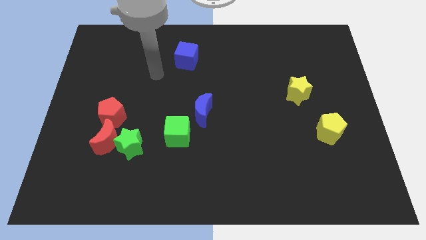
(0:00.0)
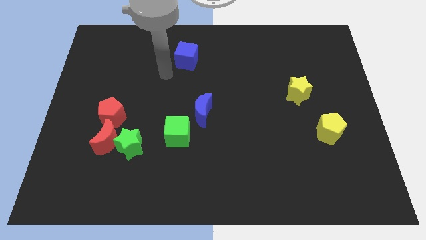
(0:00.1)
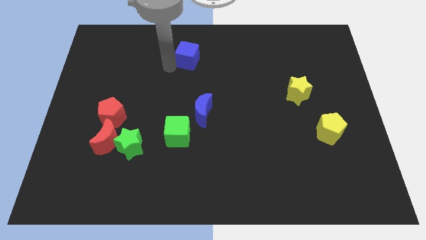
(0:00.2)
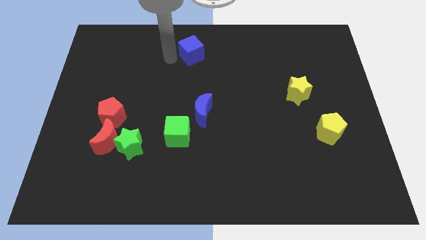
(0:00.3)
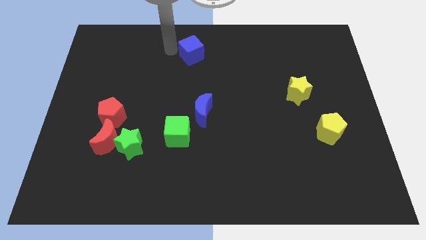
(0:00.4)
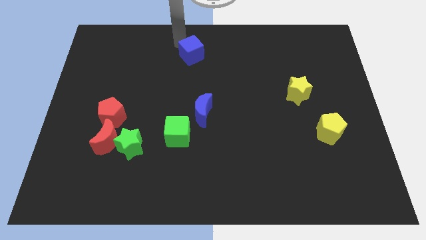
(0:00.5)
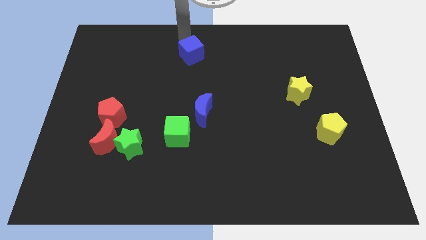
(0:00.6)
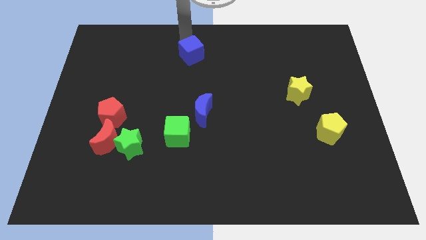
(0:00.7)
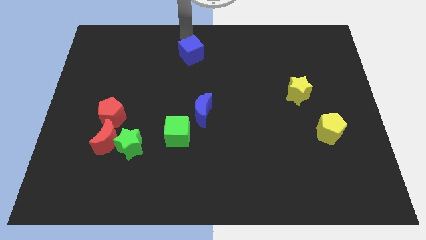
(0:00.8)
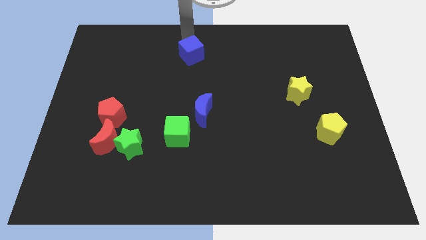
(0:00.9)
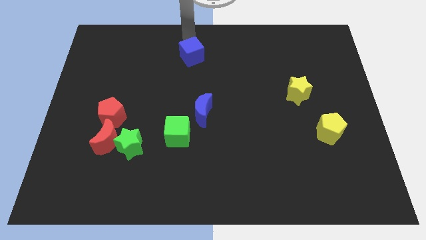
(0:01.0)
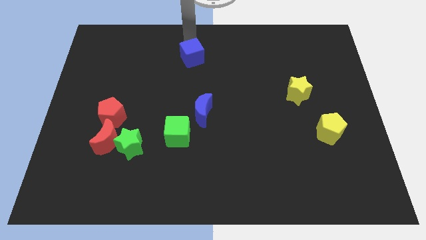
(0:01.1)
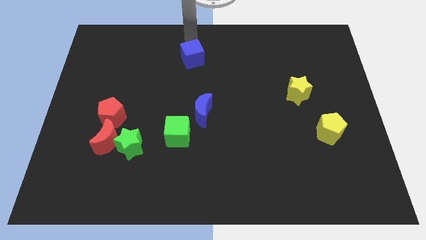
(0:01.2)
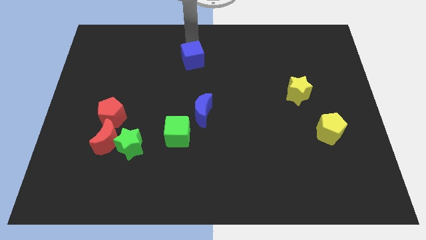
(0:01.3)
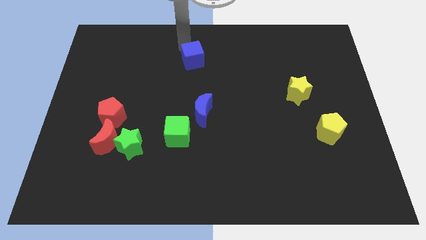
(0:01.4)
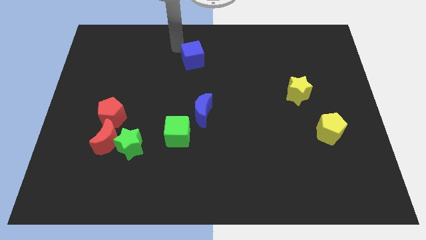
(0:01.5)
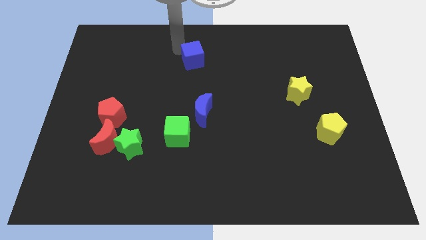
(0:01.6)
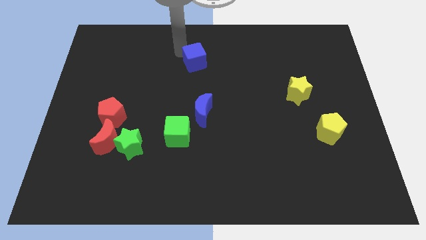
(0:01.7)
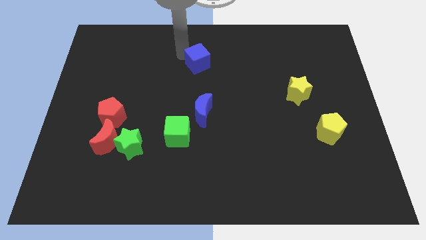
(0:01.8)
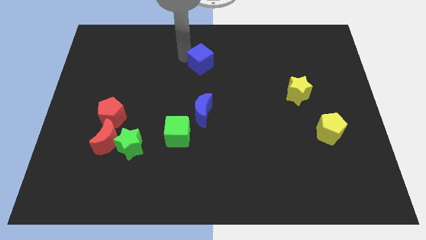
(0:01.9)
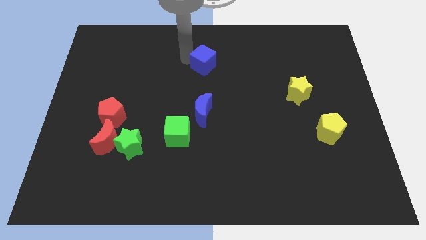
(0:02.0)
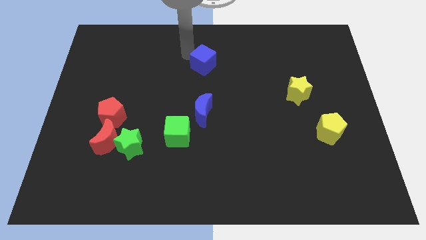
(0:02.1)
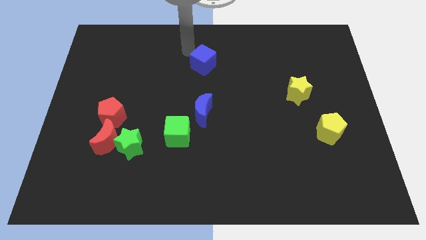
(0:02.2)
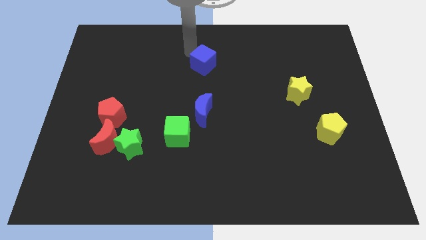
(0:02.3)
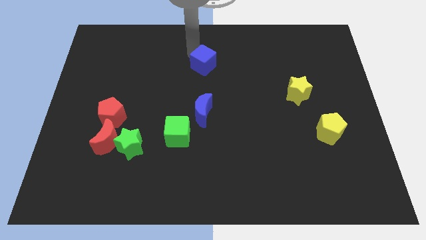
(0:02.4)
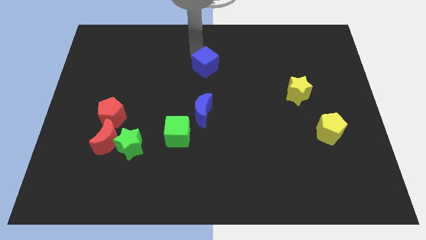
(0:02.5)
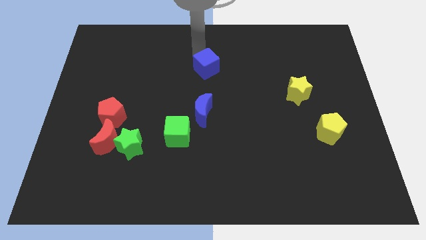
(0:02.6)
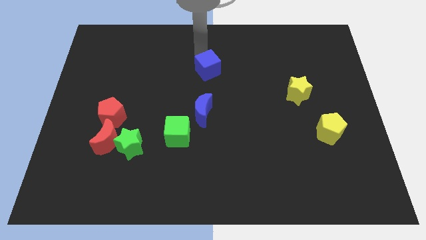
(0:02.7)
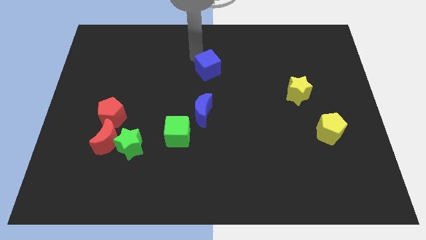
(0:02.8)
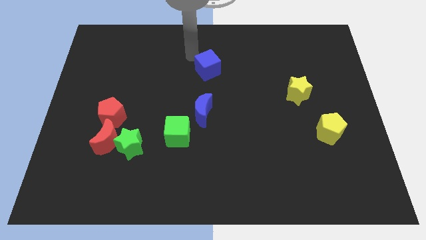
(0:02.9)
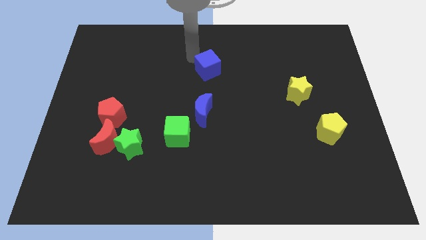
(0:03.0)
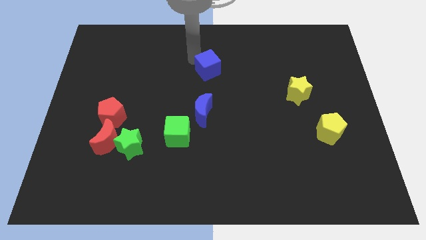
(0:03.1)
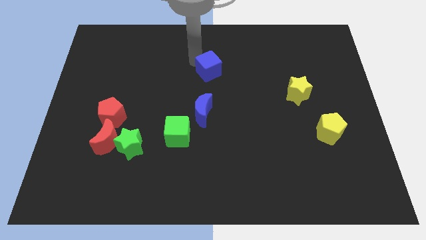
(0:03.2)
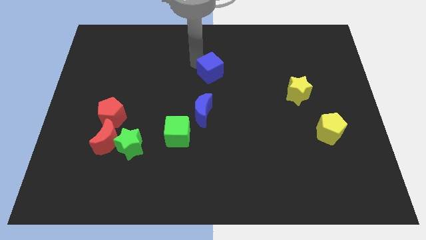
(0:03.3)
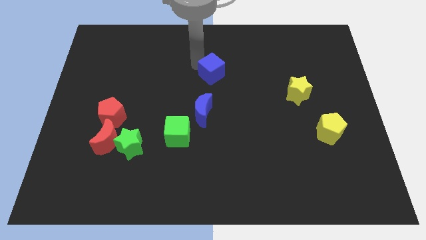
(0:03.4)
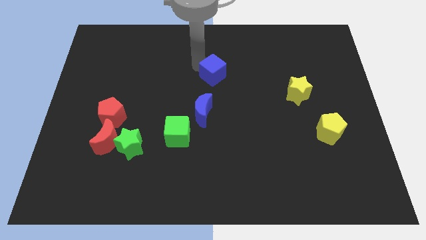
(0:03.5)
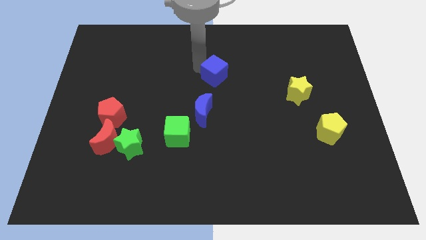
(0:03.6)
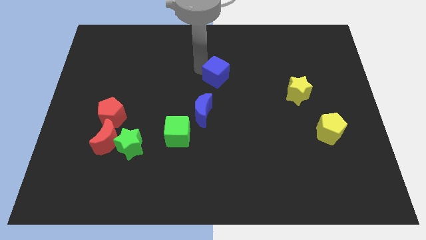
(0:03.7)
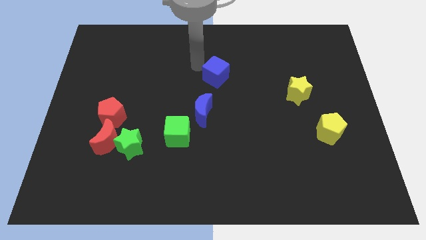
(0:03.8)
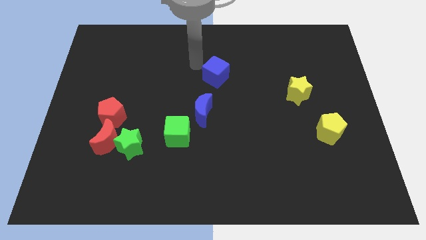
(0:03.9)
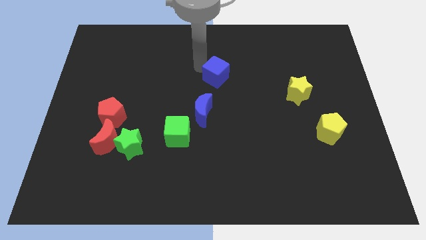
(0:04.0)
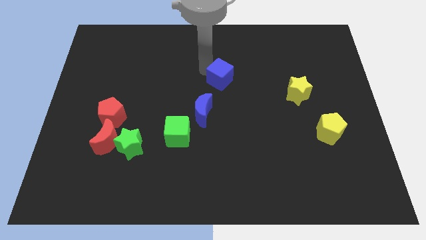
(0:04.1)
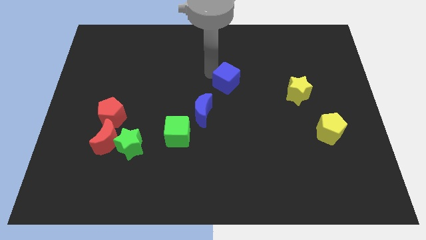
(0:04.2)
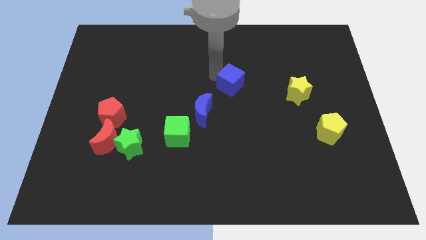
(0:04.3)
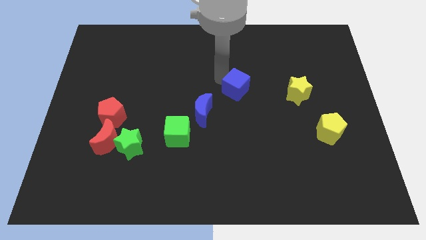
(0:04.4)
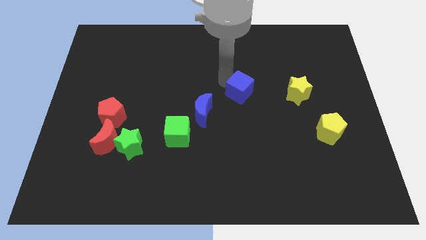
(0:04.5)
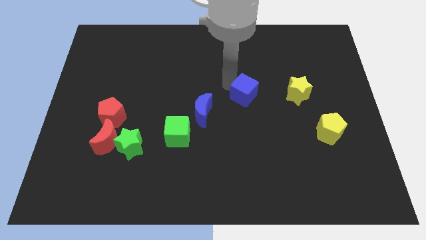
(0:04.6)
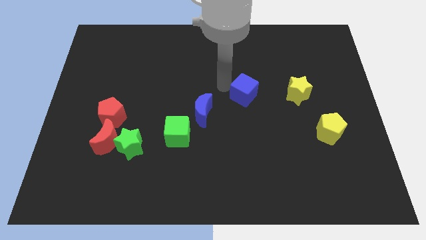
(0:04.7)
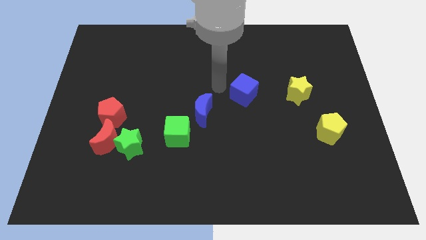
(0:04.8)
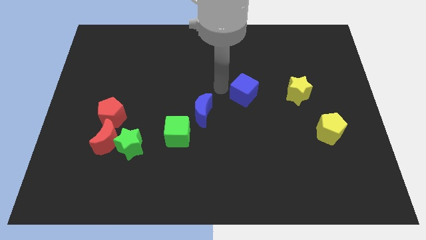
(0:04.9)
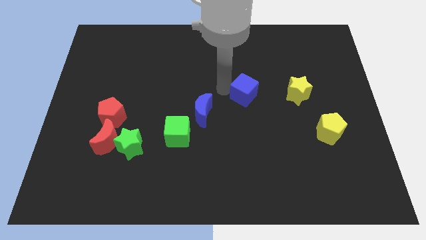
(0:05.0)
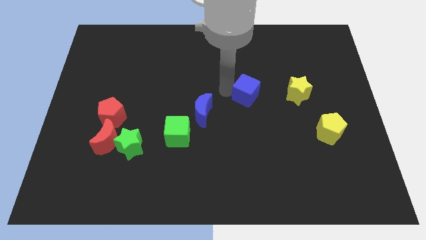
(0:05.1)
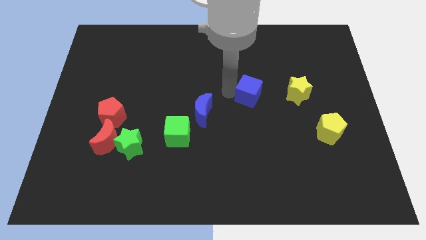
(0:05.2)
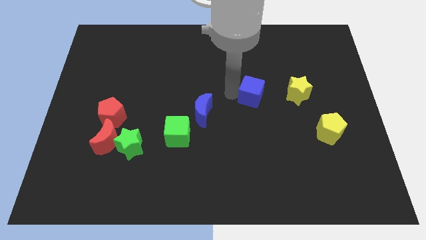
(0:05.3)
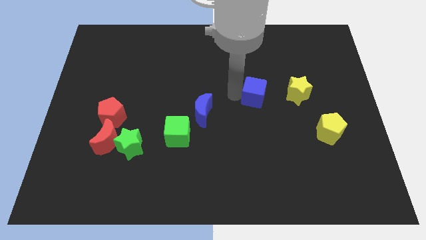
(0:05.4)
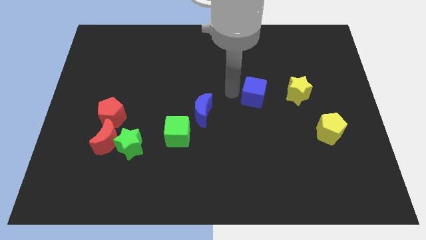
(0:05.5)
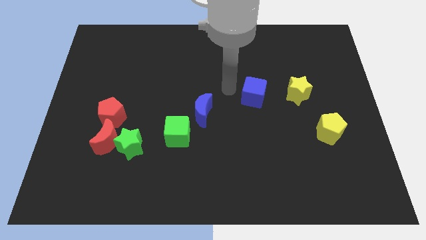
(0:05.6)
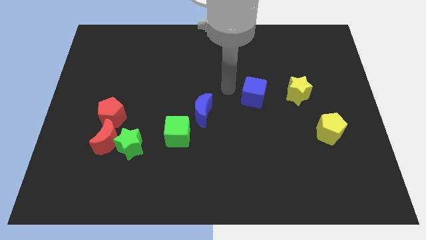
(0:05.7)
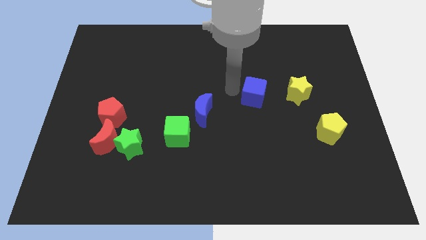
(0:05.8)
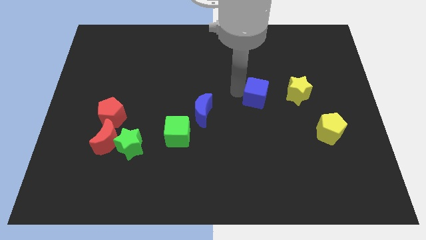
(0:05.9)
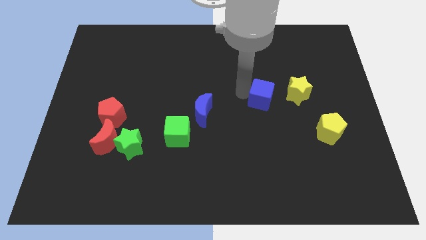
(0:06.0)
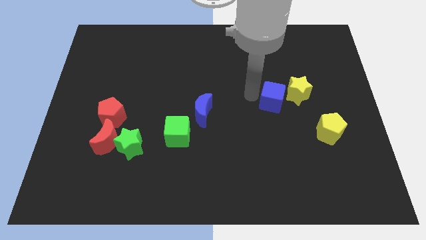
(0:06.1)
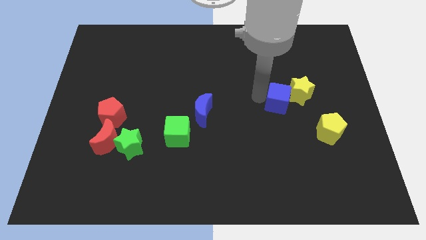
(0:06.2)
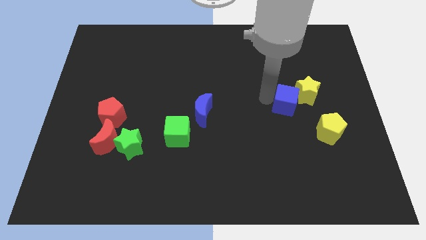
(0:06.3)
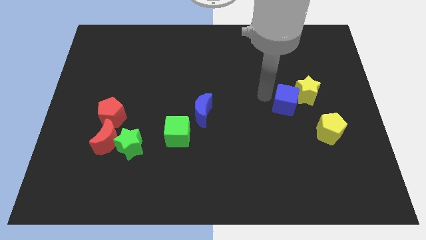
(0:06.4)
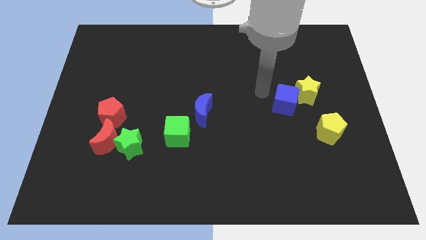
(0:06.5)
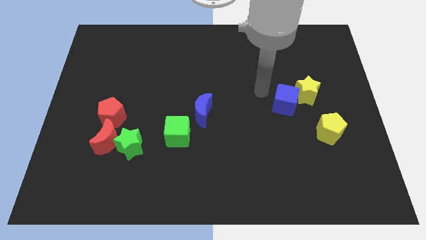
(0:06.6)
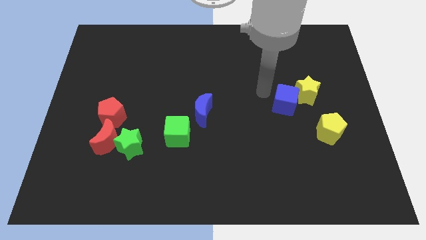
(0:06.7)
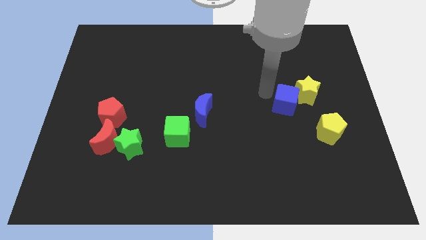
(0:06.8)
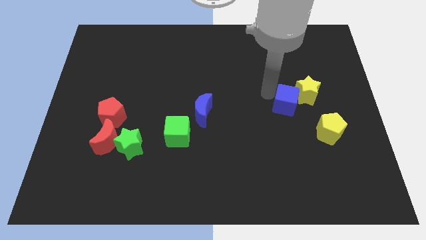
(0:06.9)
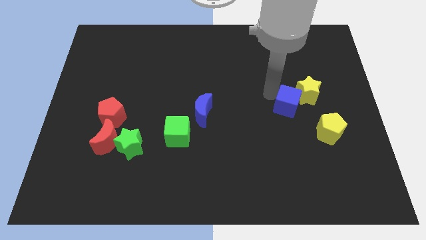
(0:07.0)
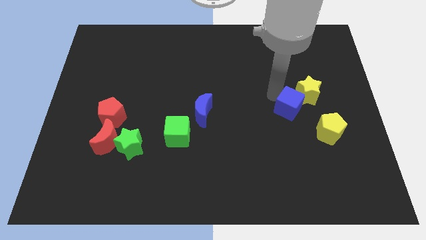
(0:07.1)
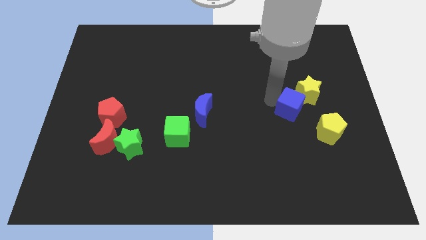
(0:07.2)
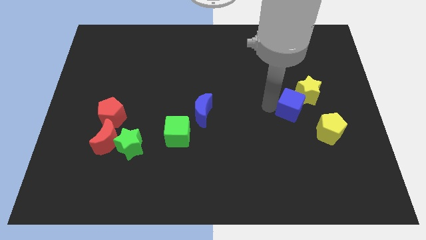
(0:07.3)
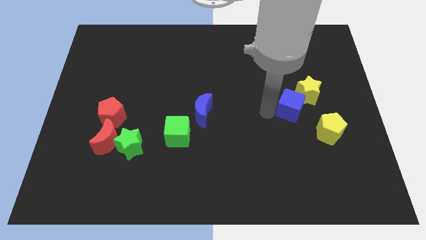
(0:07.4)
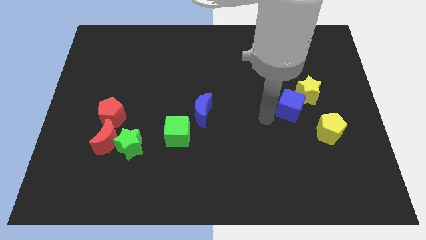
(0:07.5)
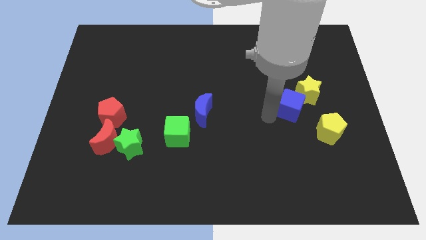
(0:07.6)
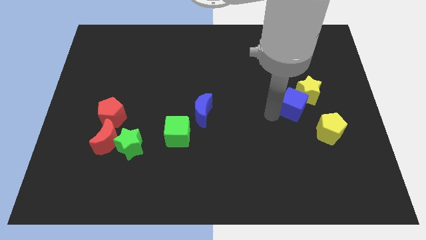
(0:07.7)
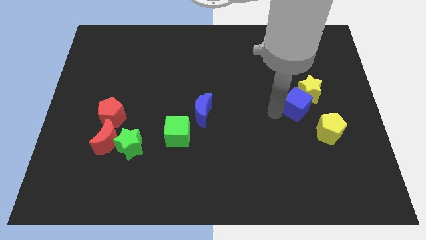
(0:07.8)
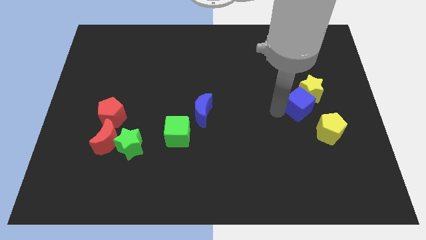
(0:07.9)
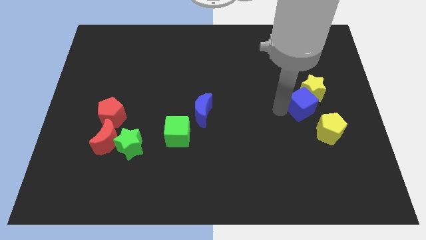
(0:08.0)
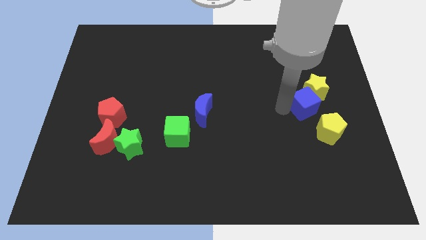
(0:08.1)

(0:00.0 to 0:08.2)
move the blue cube to the top of the yellow pentagon
